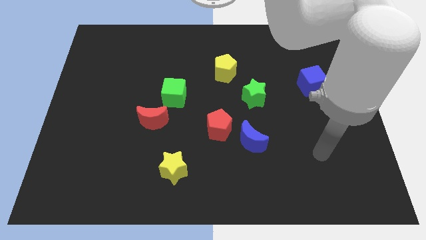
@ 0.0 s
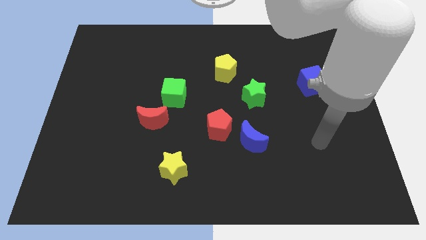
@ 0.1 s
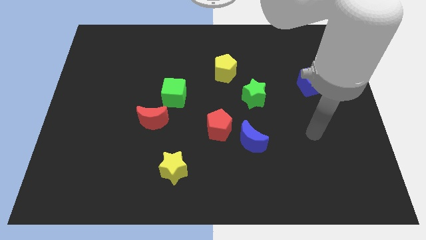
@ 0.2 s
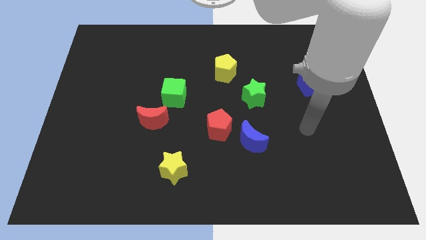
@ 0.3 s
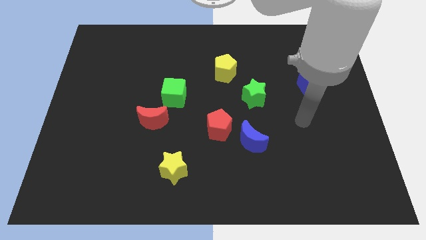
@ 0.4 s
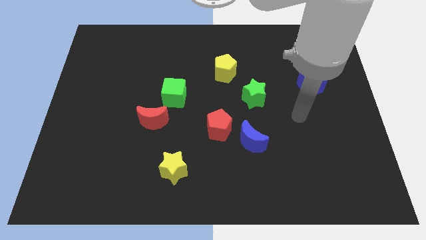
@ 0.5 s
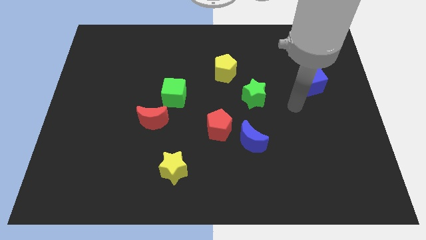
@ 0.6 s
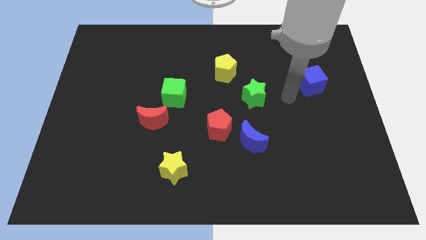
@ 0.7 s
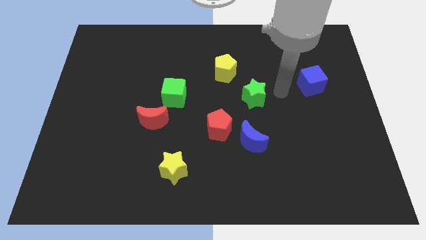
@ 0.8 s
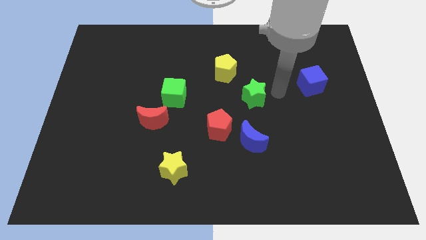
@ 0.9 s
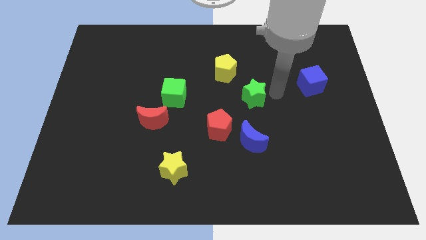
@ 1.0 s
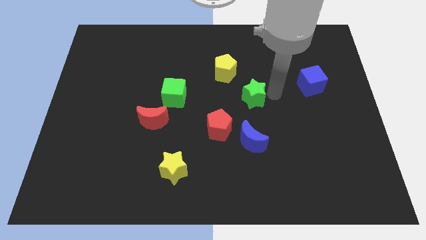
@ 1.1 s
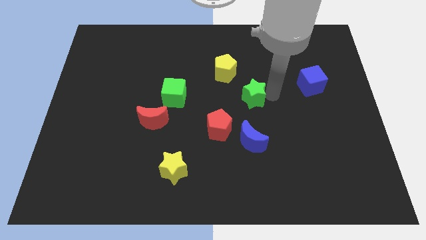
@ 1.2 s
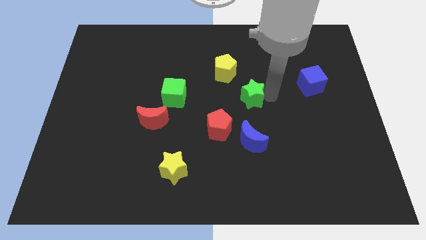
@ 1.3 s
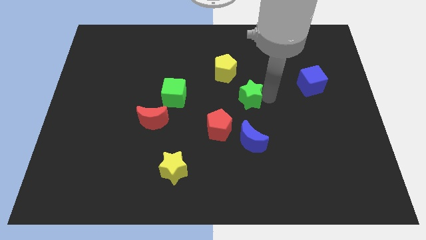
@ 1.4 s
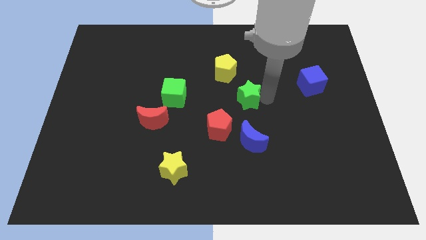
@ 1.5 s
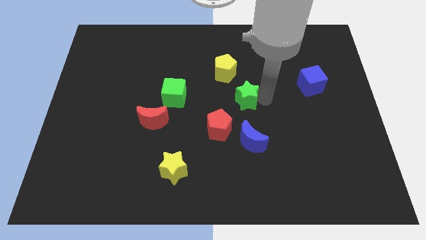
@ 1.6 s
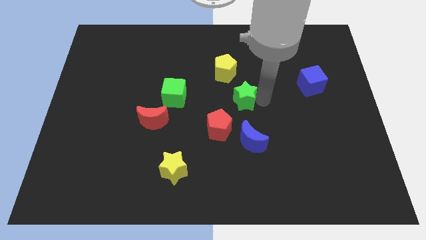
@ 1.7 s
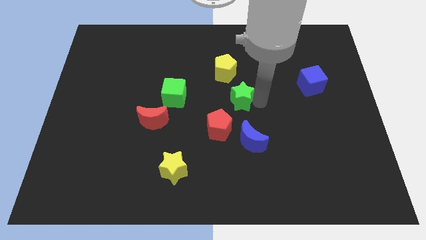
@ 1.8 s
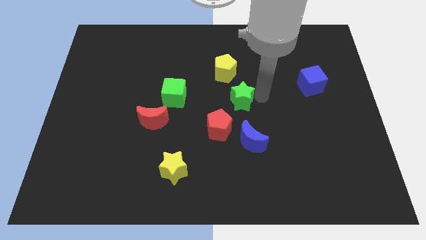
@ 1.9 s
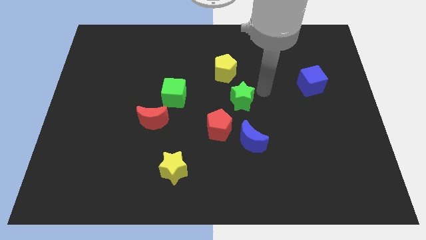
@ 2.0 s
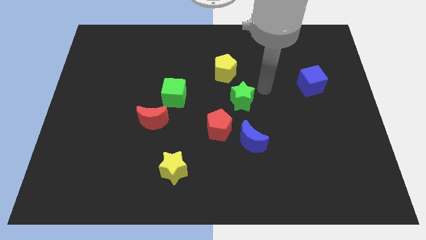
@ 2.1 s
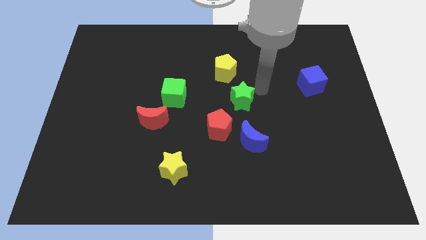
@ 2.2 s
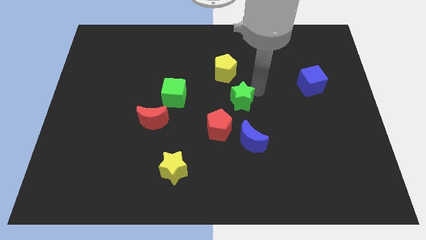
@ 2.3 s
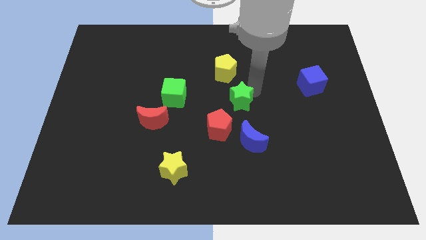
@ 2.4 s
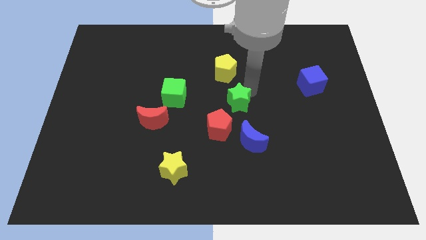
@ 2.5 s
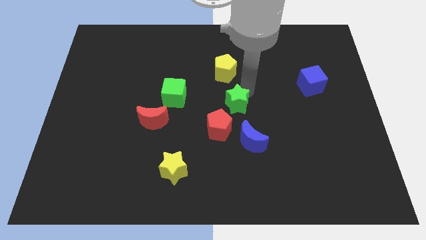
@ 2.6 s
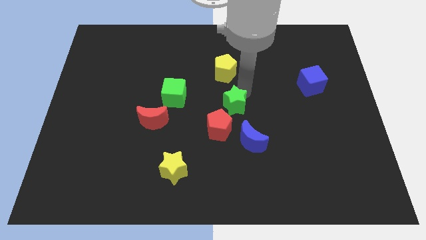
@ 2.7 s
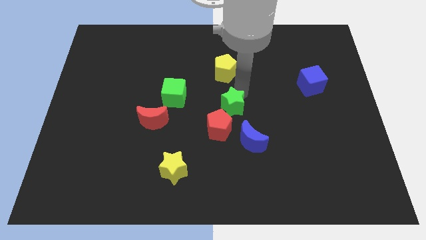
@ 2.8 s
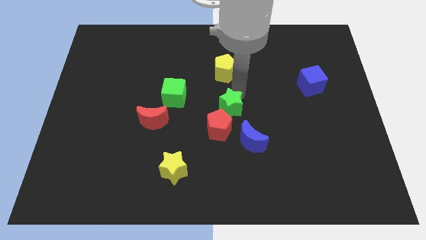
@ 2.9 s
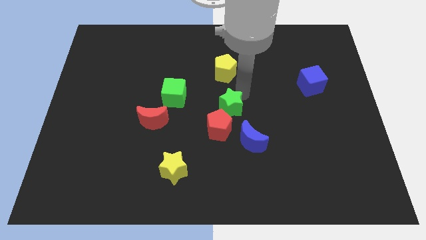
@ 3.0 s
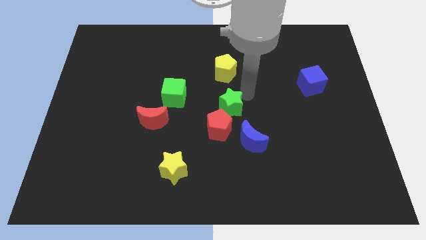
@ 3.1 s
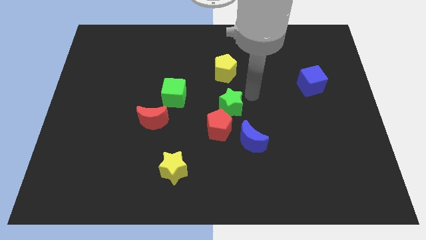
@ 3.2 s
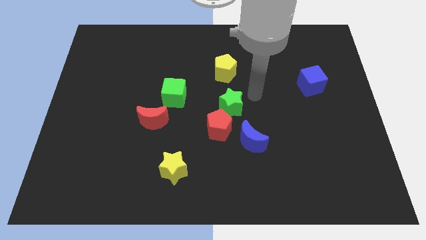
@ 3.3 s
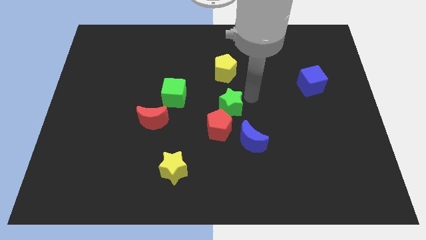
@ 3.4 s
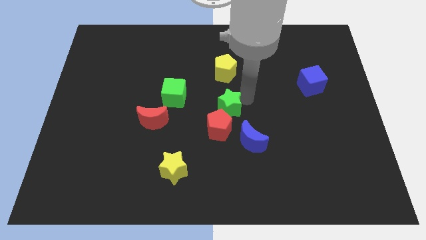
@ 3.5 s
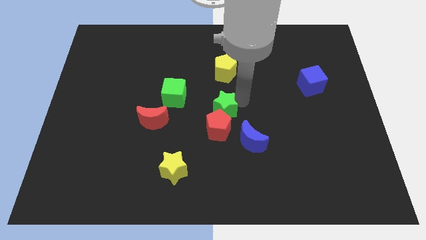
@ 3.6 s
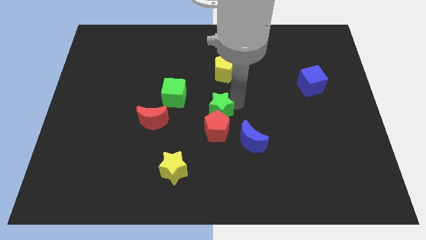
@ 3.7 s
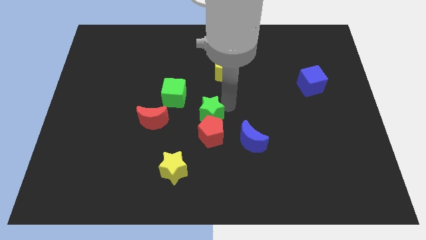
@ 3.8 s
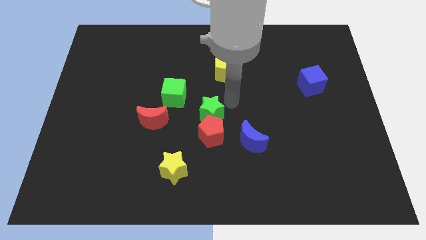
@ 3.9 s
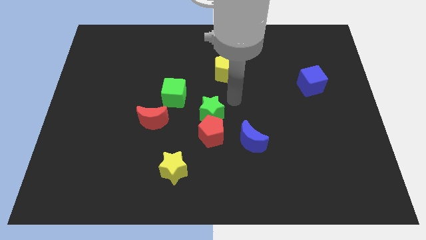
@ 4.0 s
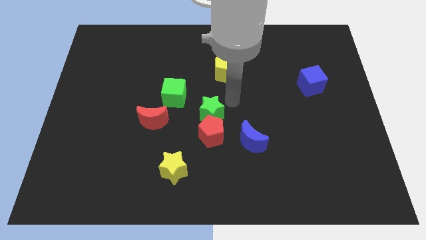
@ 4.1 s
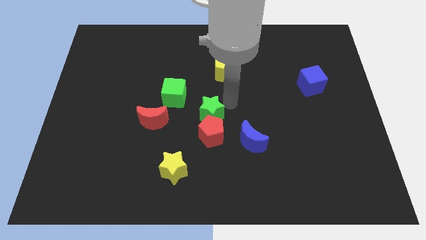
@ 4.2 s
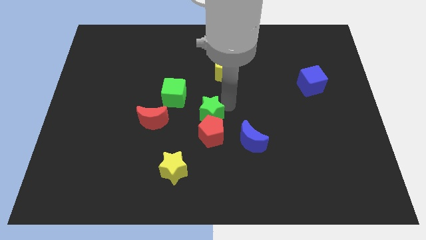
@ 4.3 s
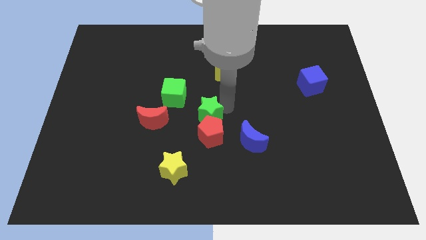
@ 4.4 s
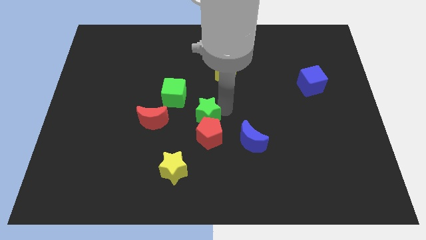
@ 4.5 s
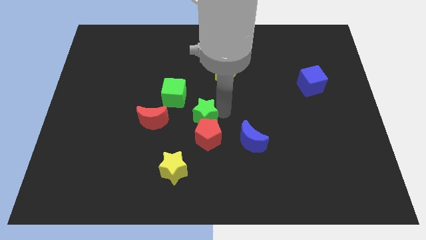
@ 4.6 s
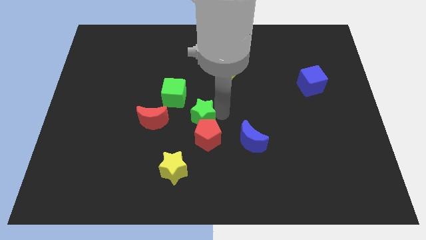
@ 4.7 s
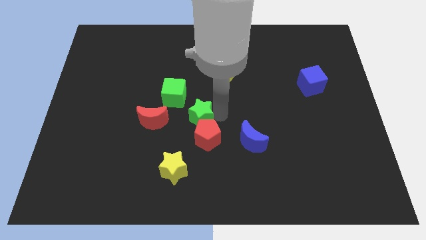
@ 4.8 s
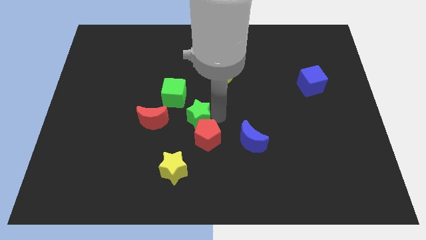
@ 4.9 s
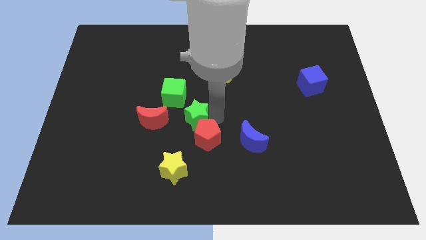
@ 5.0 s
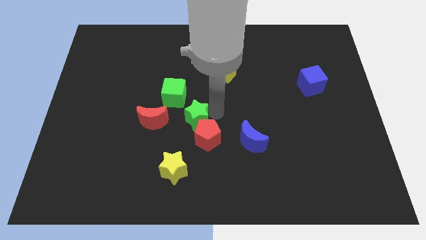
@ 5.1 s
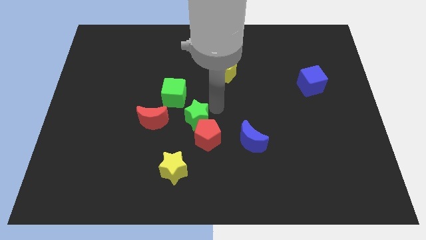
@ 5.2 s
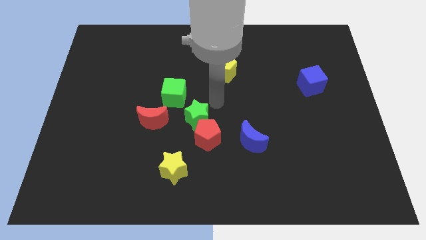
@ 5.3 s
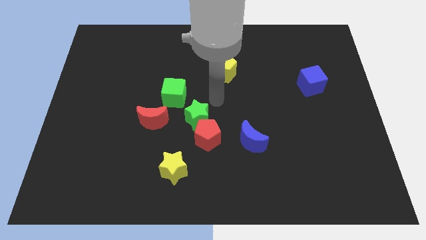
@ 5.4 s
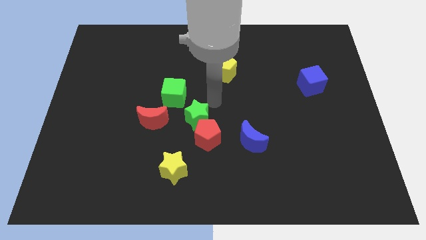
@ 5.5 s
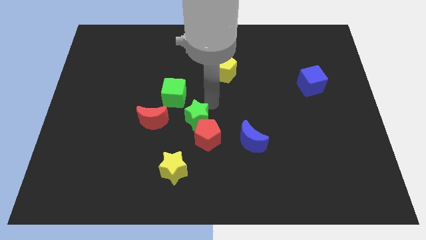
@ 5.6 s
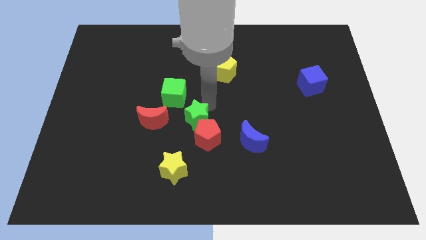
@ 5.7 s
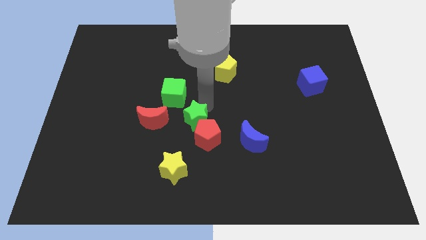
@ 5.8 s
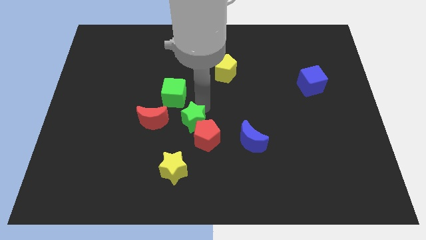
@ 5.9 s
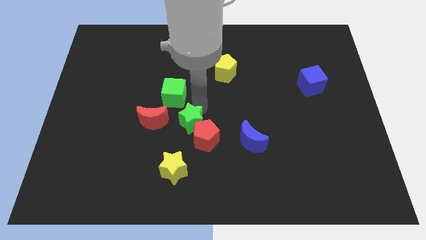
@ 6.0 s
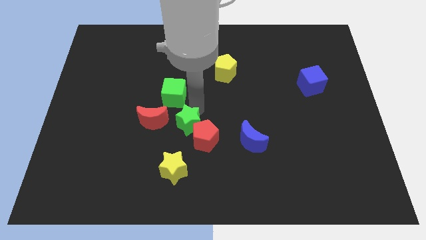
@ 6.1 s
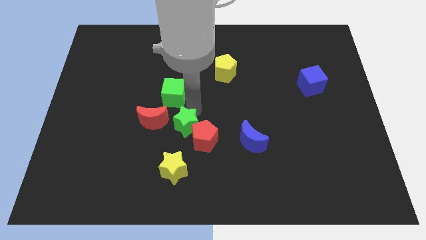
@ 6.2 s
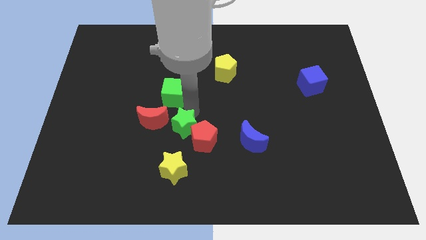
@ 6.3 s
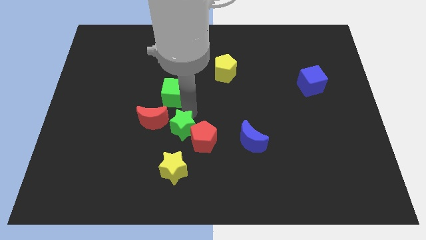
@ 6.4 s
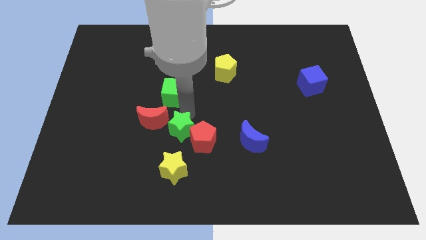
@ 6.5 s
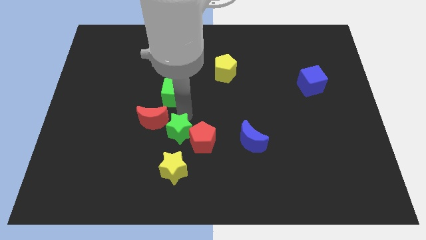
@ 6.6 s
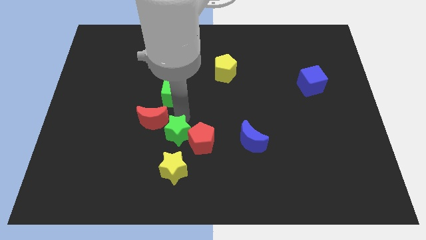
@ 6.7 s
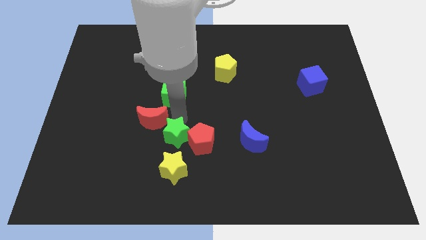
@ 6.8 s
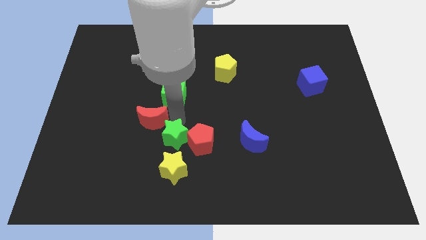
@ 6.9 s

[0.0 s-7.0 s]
push the green star down and left

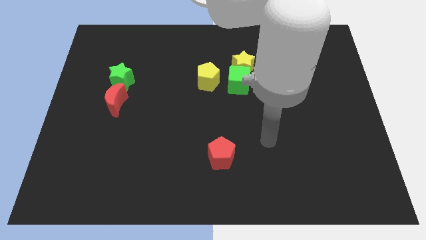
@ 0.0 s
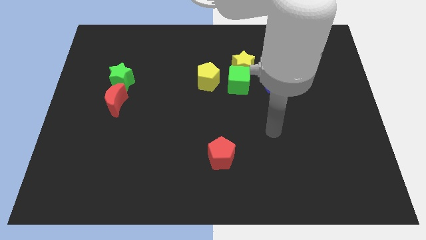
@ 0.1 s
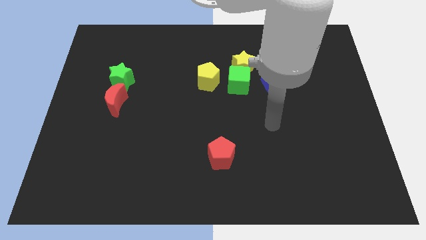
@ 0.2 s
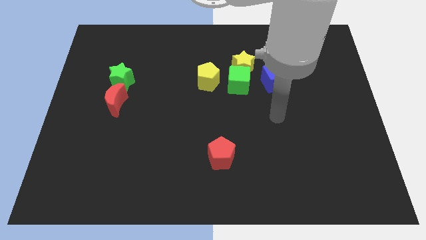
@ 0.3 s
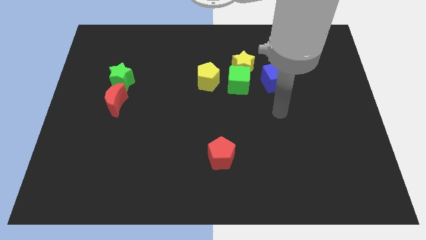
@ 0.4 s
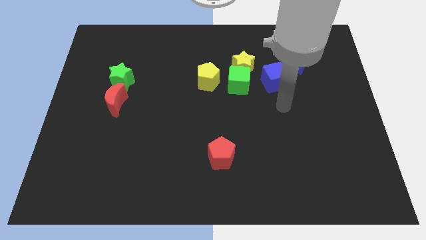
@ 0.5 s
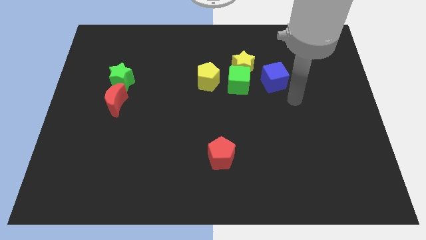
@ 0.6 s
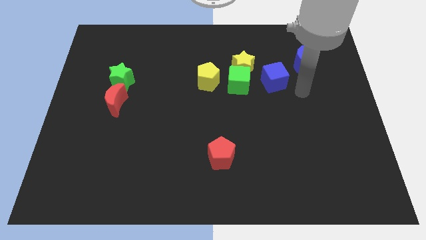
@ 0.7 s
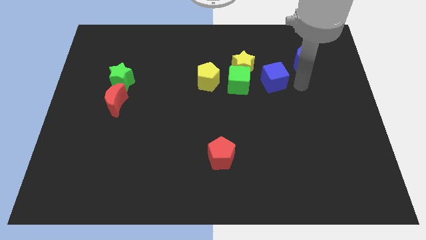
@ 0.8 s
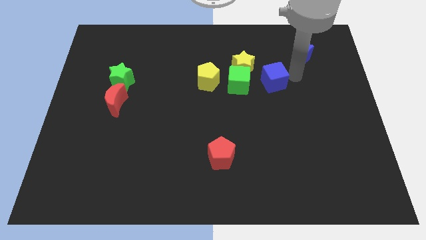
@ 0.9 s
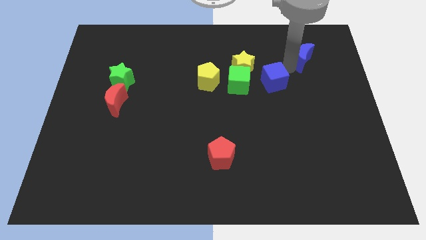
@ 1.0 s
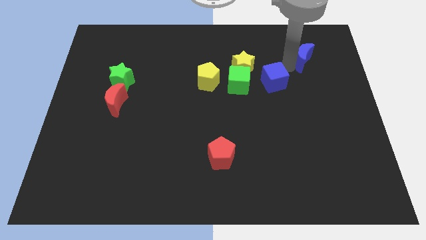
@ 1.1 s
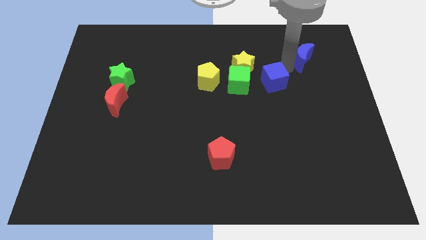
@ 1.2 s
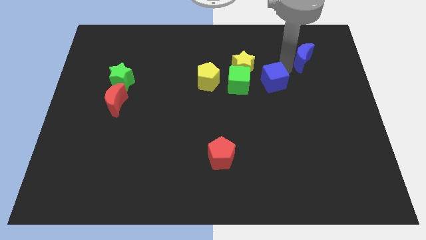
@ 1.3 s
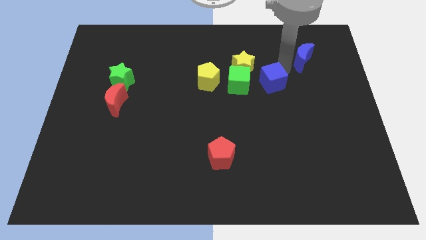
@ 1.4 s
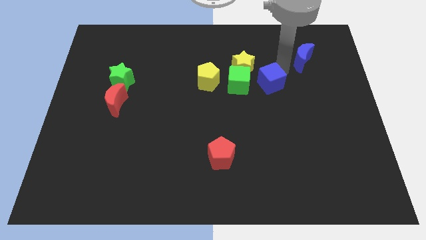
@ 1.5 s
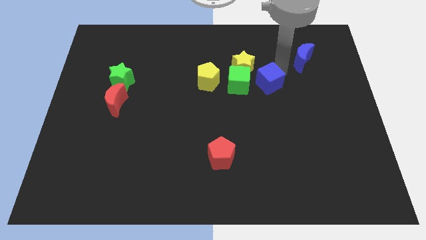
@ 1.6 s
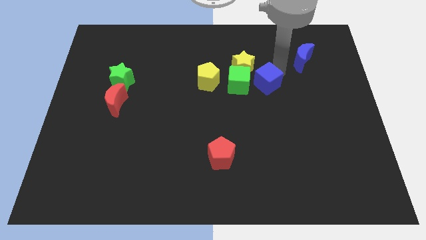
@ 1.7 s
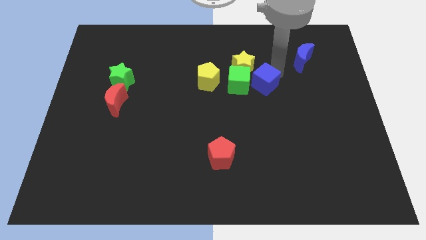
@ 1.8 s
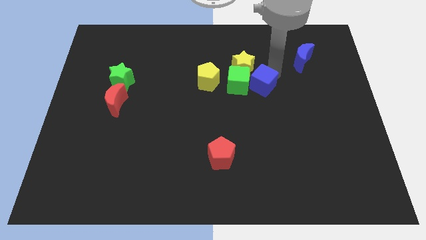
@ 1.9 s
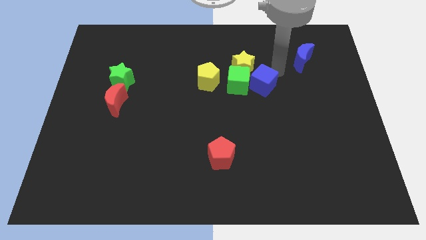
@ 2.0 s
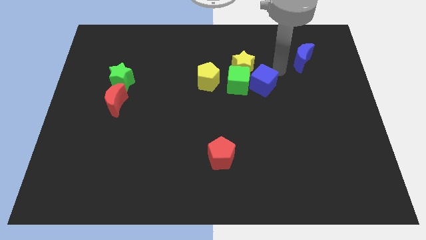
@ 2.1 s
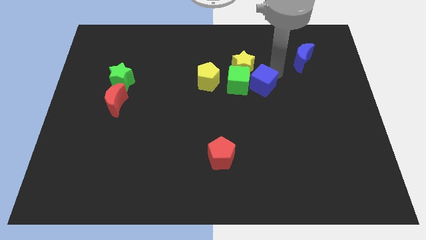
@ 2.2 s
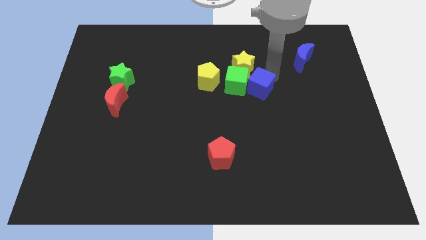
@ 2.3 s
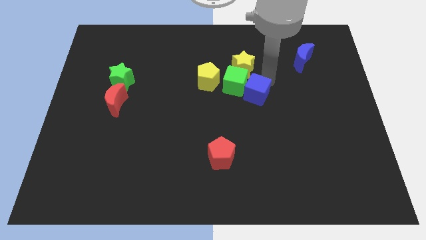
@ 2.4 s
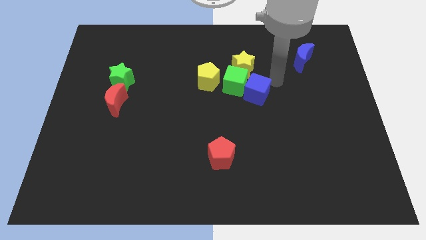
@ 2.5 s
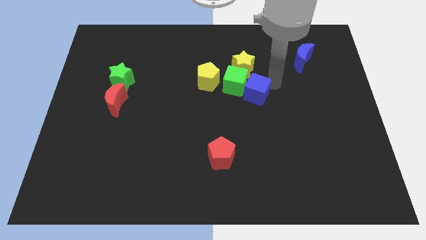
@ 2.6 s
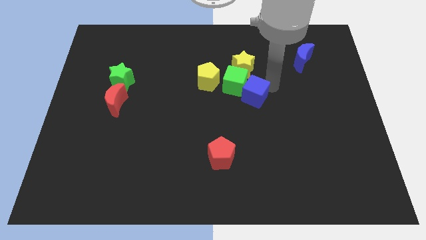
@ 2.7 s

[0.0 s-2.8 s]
move the blue cube down and to the left diagonally a little
